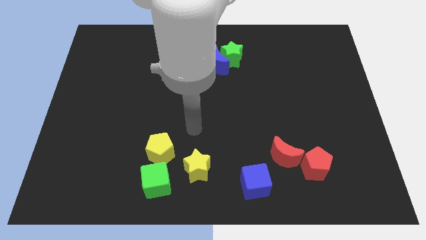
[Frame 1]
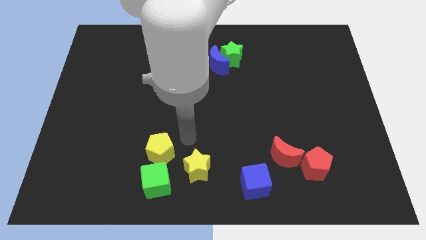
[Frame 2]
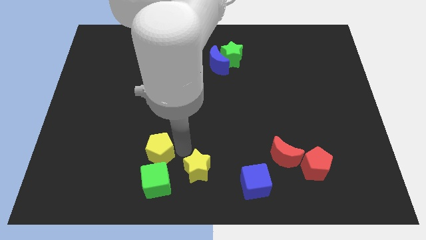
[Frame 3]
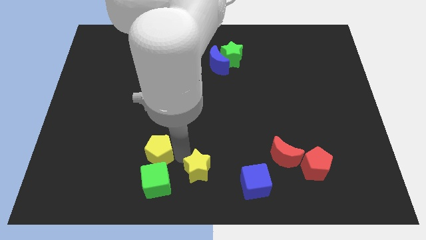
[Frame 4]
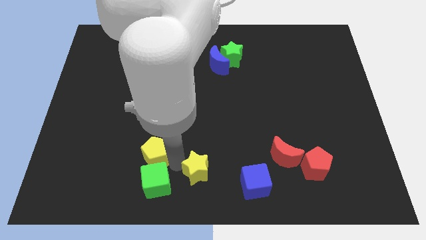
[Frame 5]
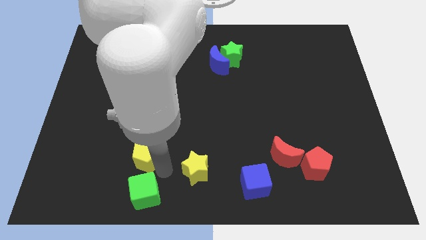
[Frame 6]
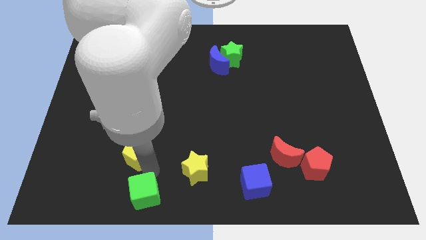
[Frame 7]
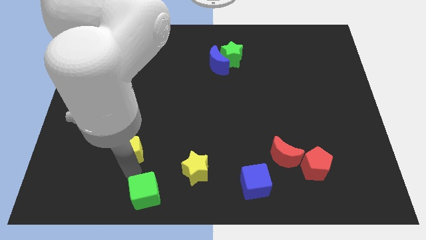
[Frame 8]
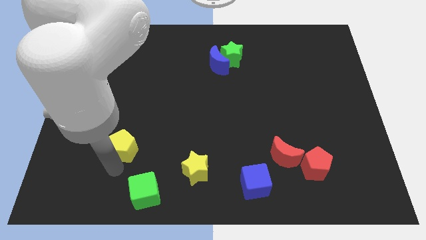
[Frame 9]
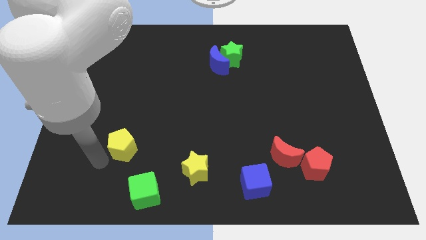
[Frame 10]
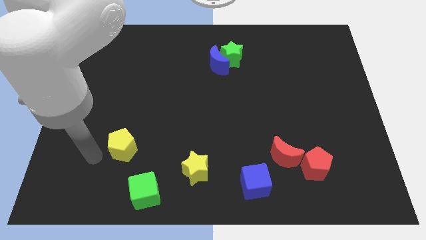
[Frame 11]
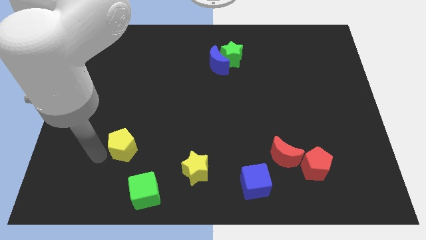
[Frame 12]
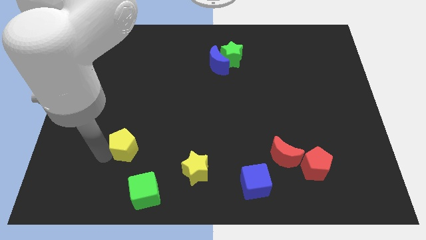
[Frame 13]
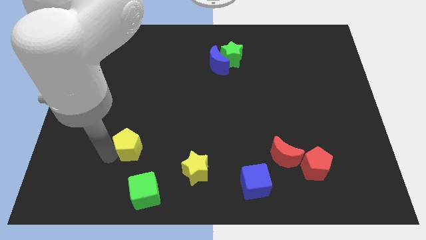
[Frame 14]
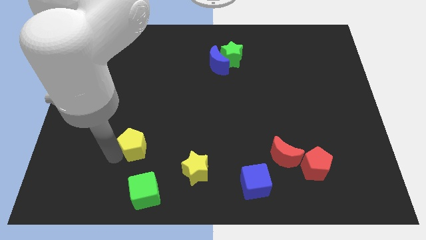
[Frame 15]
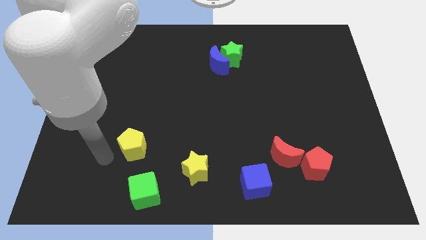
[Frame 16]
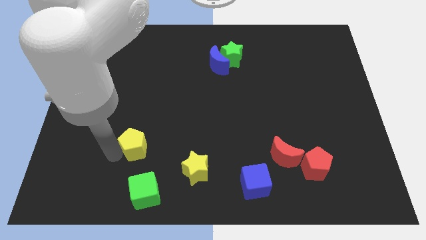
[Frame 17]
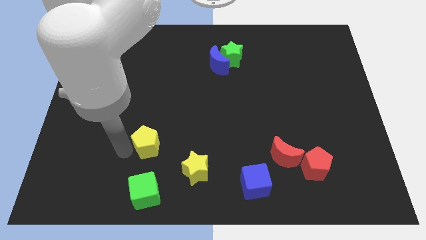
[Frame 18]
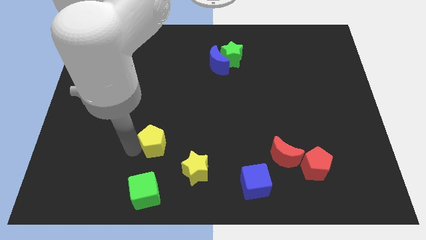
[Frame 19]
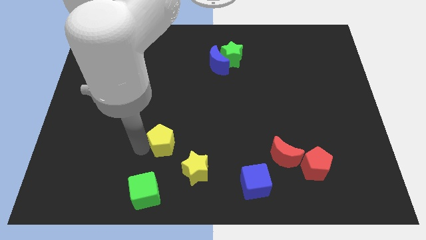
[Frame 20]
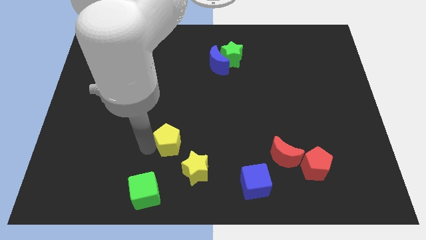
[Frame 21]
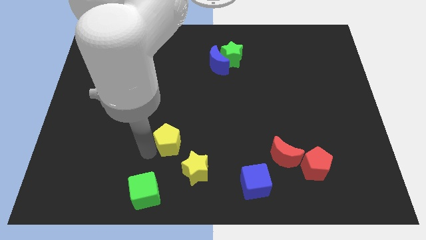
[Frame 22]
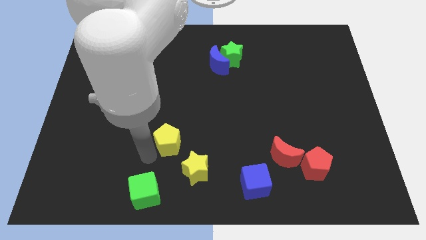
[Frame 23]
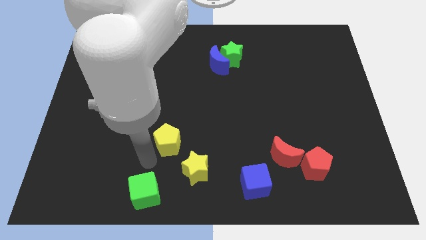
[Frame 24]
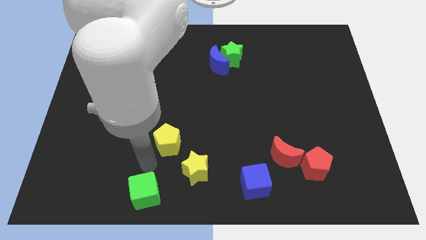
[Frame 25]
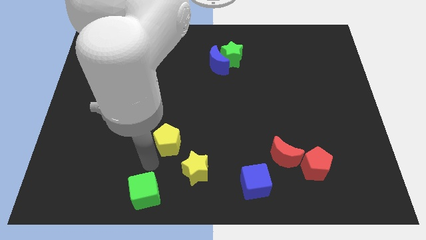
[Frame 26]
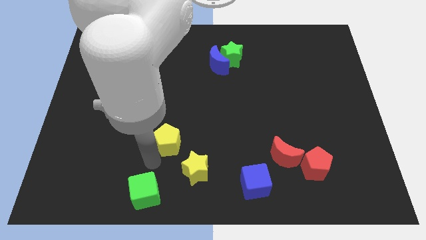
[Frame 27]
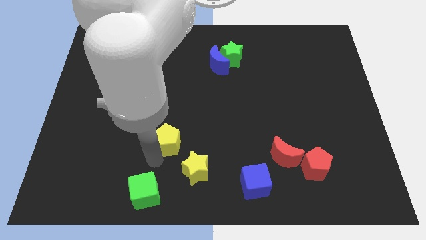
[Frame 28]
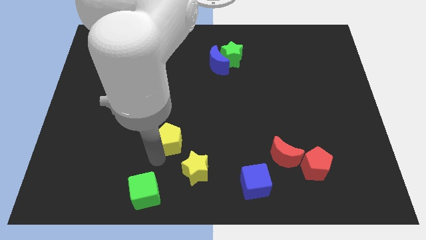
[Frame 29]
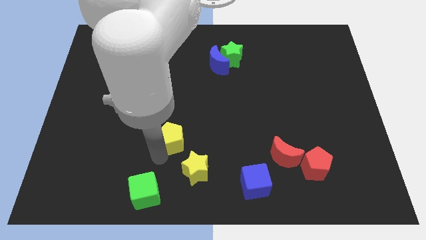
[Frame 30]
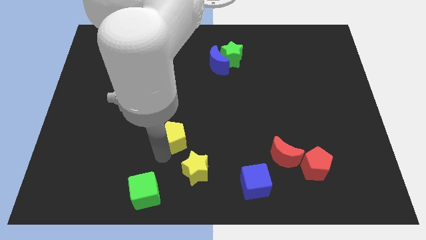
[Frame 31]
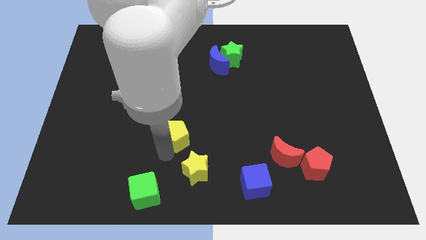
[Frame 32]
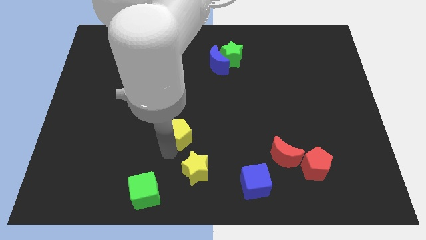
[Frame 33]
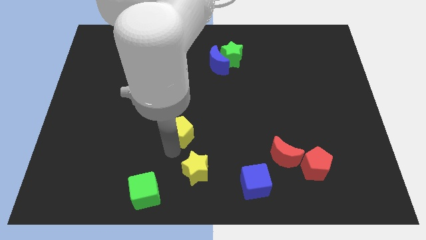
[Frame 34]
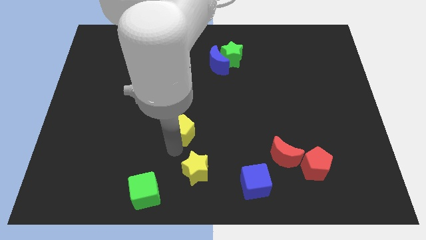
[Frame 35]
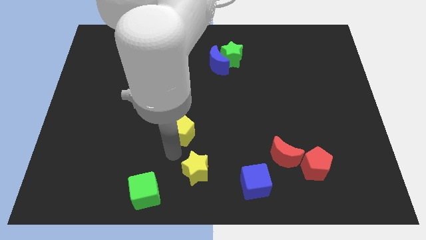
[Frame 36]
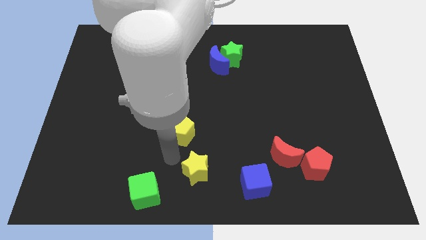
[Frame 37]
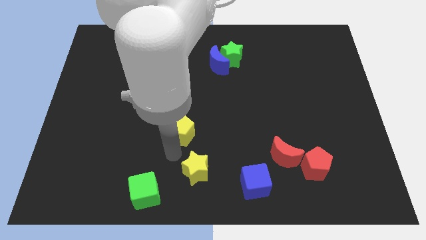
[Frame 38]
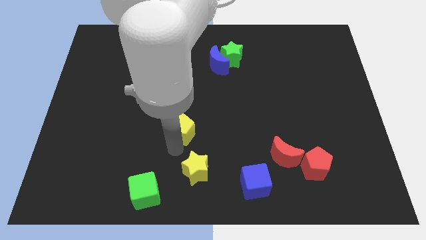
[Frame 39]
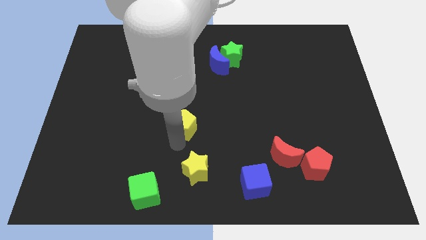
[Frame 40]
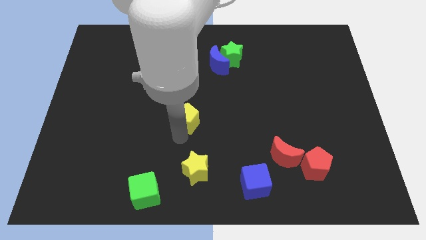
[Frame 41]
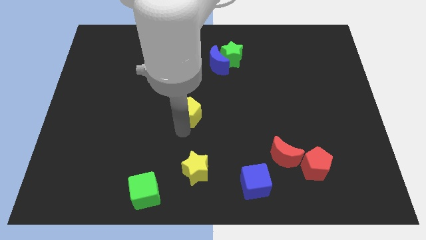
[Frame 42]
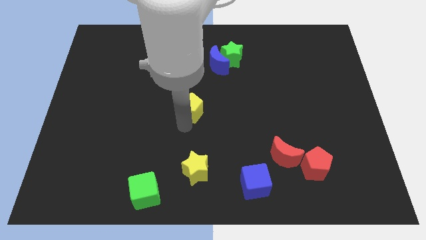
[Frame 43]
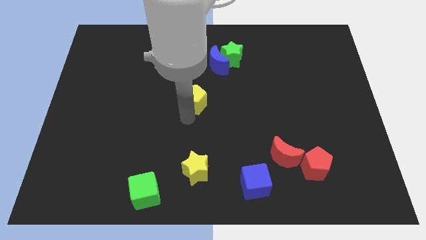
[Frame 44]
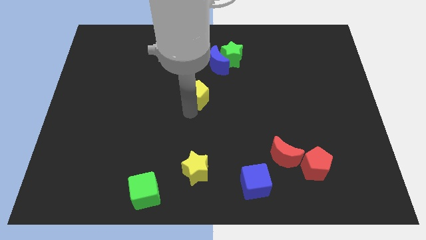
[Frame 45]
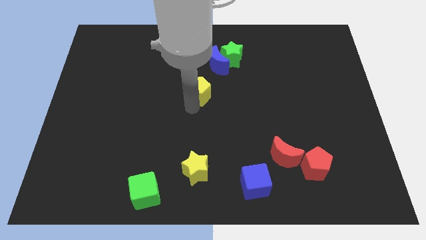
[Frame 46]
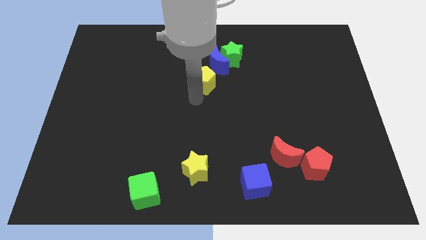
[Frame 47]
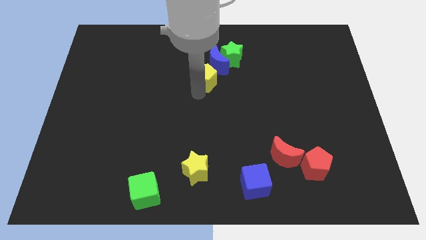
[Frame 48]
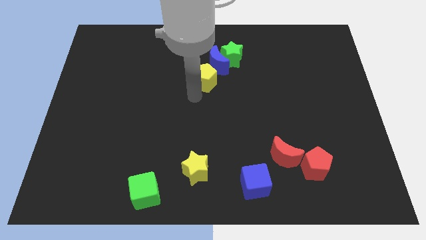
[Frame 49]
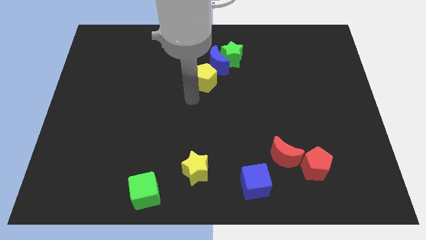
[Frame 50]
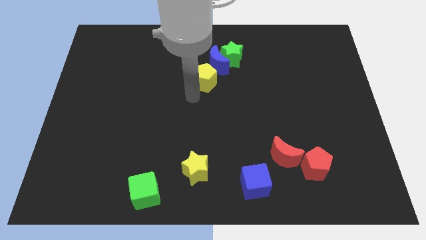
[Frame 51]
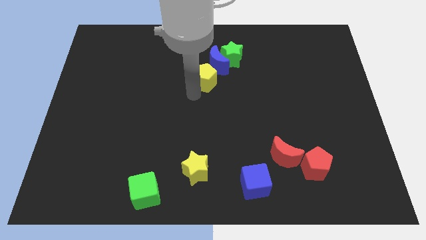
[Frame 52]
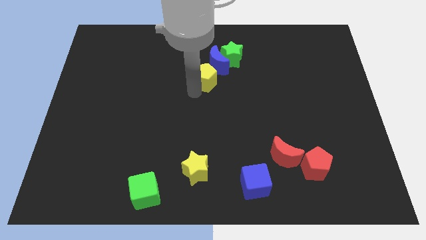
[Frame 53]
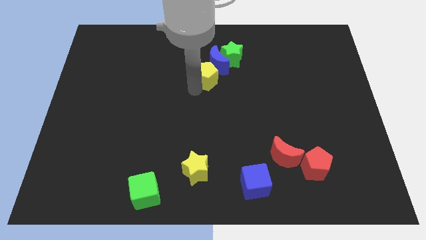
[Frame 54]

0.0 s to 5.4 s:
slide the yellow pentagon towards the blue moon

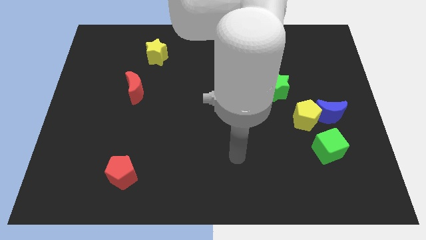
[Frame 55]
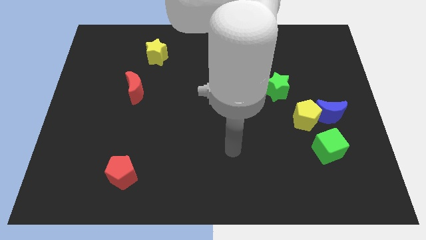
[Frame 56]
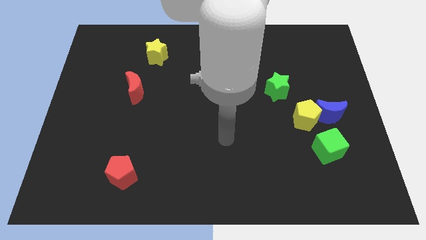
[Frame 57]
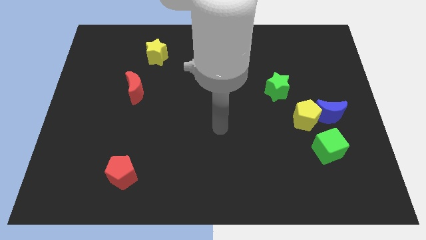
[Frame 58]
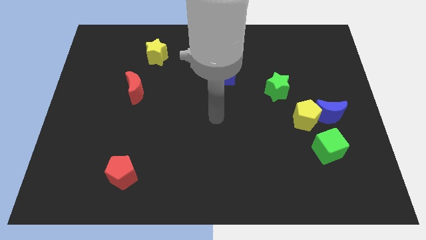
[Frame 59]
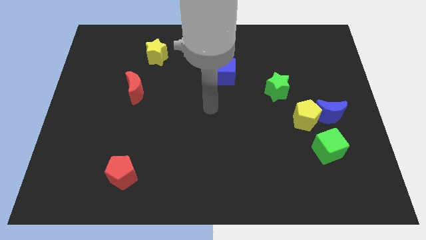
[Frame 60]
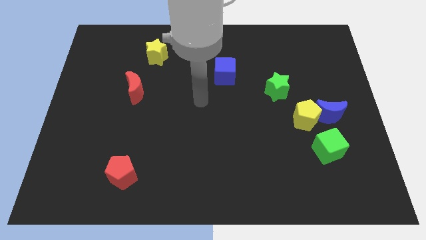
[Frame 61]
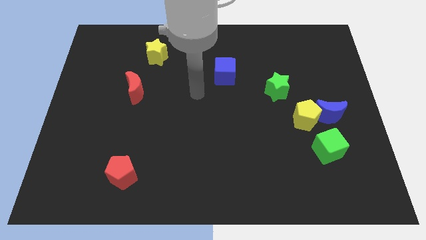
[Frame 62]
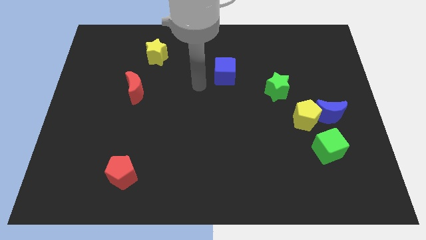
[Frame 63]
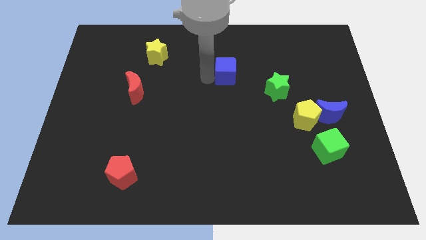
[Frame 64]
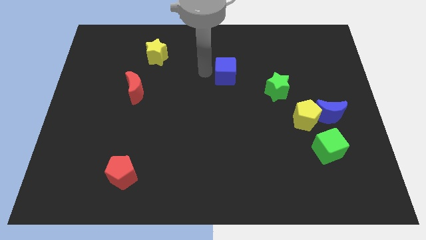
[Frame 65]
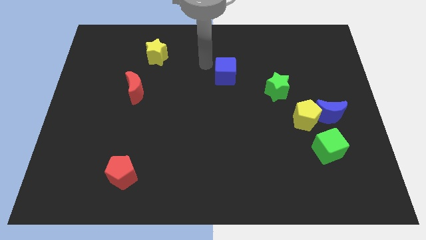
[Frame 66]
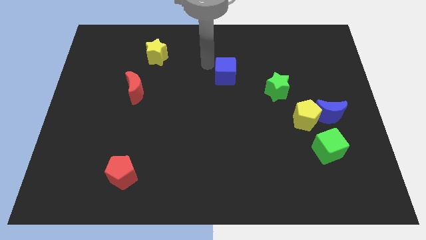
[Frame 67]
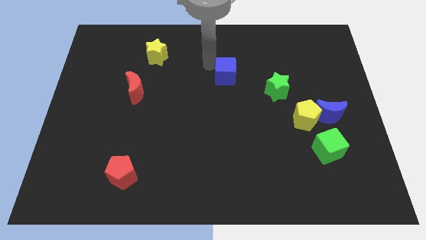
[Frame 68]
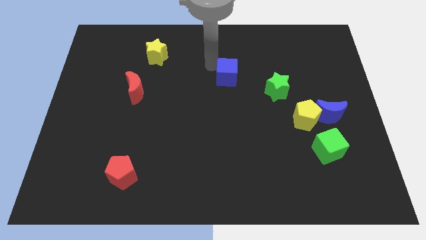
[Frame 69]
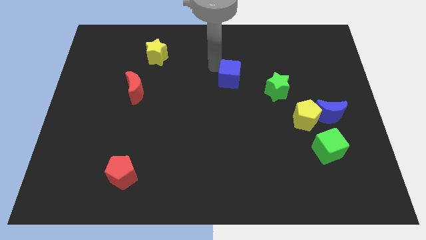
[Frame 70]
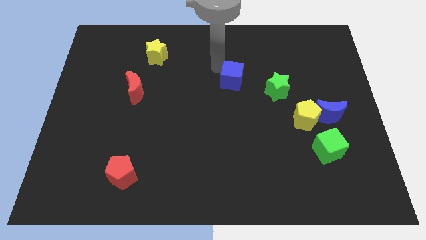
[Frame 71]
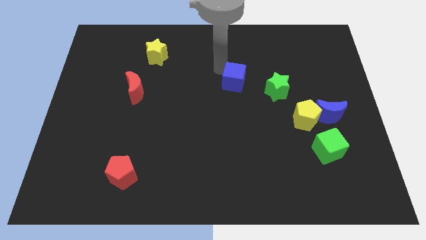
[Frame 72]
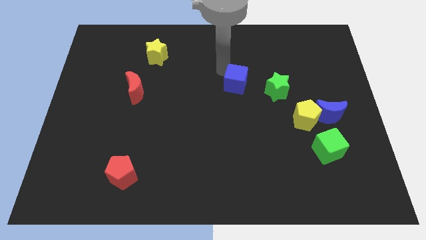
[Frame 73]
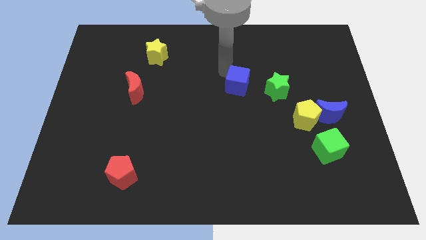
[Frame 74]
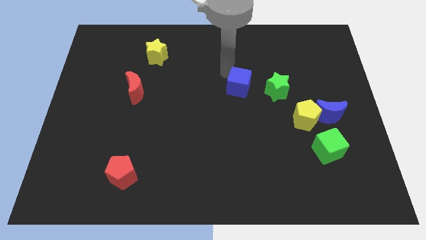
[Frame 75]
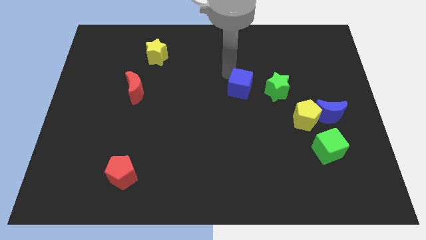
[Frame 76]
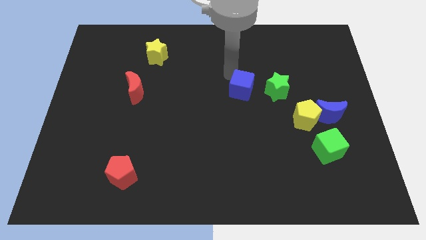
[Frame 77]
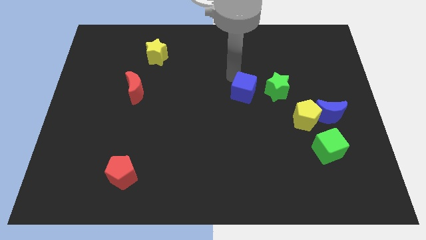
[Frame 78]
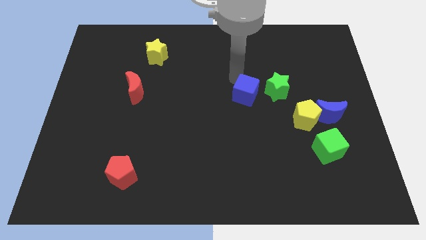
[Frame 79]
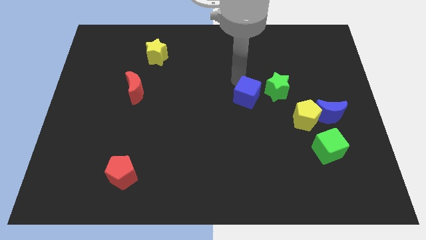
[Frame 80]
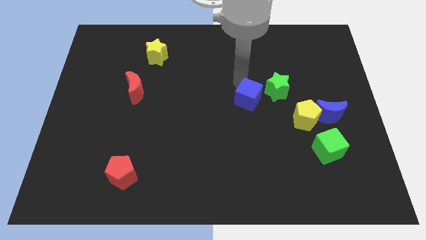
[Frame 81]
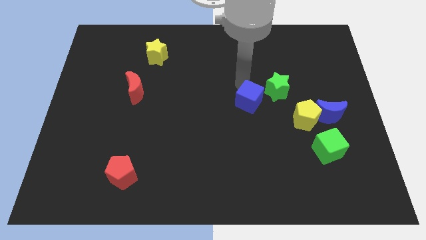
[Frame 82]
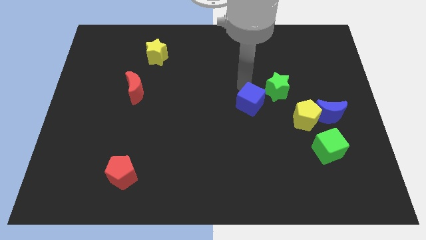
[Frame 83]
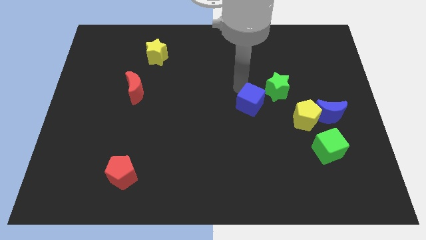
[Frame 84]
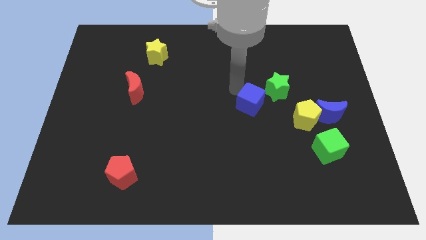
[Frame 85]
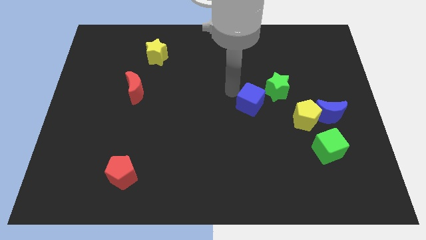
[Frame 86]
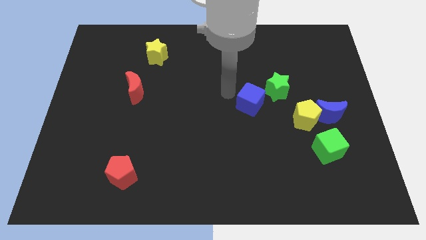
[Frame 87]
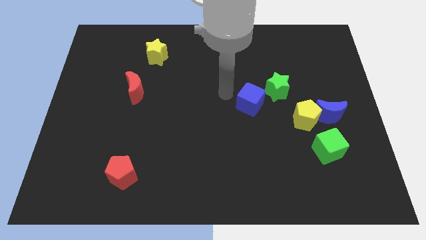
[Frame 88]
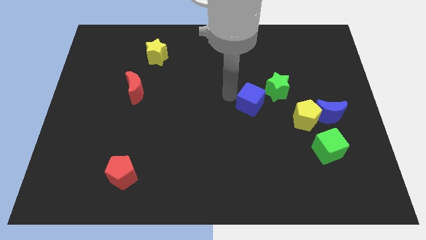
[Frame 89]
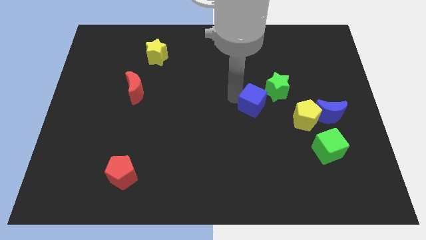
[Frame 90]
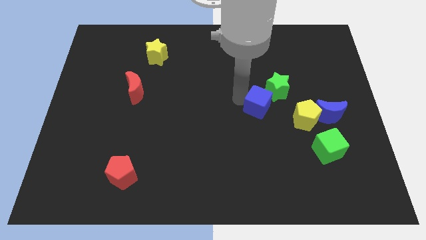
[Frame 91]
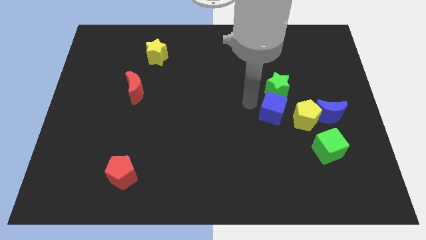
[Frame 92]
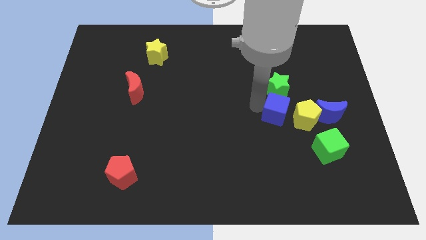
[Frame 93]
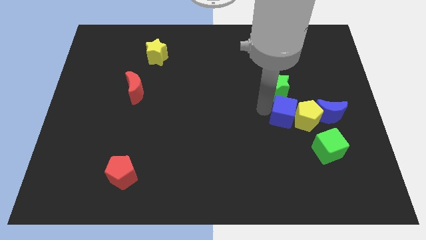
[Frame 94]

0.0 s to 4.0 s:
move the blue cube close to the yellow pentagon
